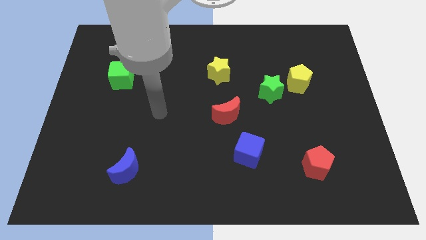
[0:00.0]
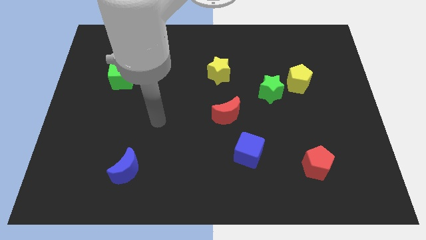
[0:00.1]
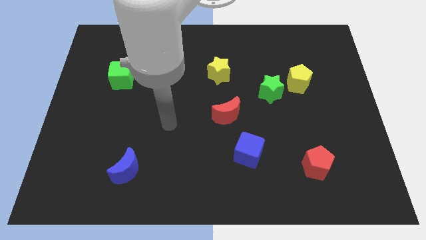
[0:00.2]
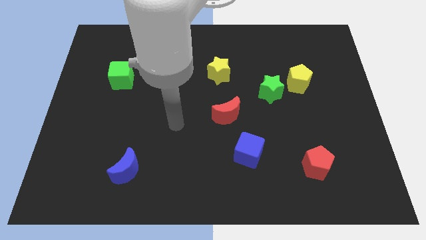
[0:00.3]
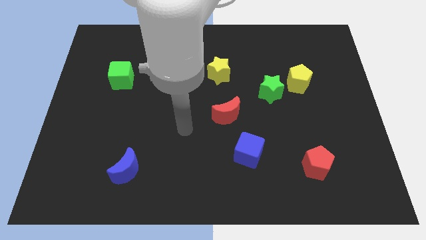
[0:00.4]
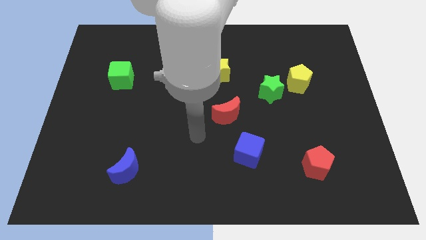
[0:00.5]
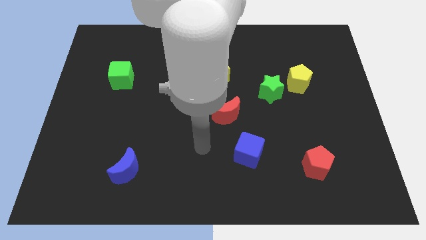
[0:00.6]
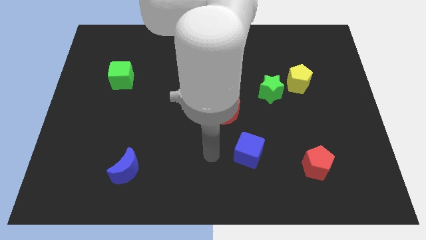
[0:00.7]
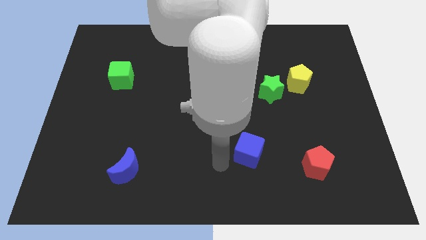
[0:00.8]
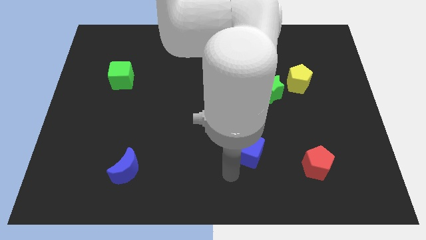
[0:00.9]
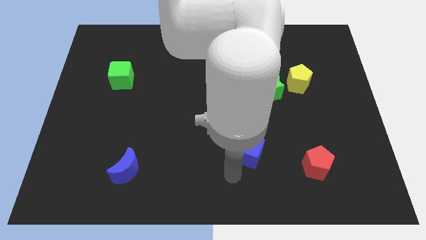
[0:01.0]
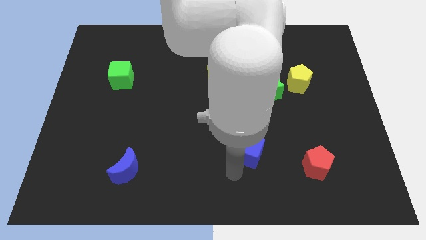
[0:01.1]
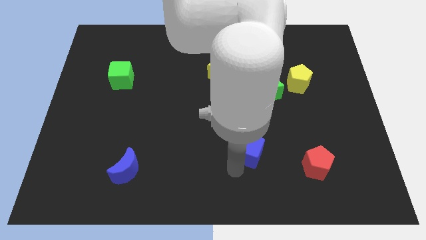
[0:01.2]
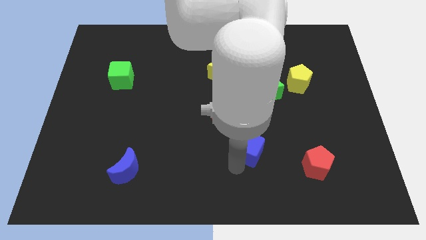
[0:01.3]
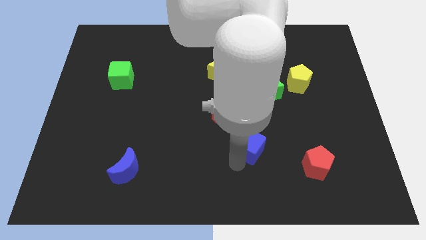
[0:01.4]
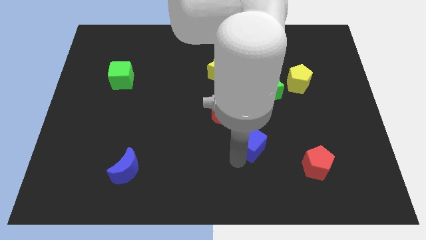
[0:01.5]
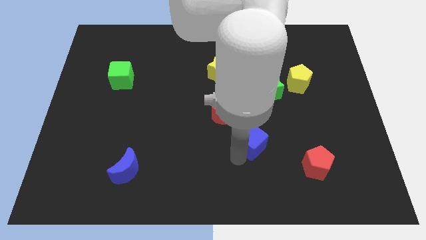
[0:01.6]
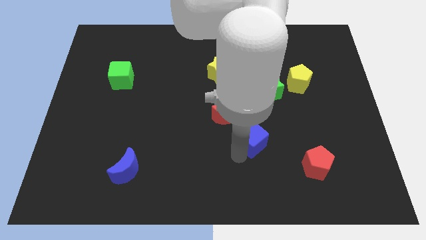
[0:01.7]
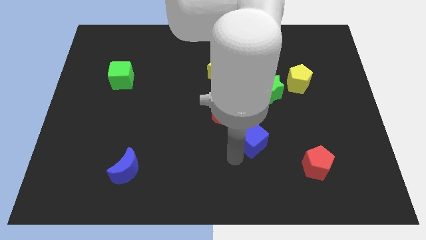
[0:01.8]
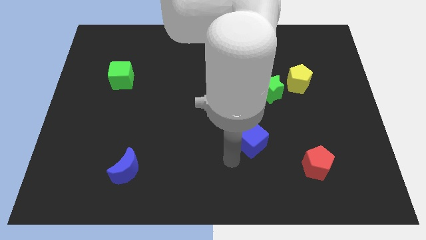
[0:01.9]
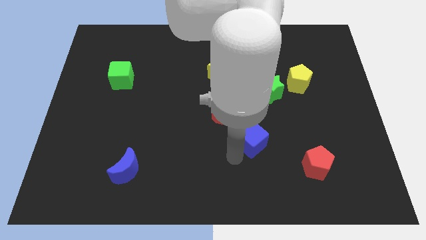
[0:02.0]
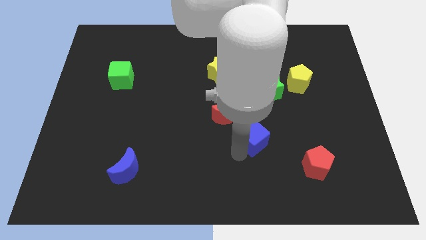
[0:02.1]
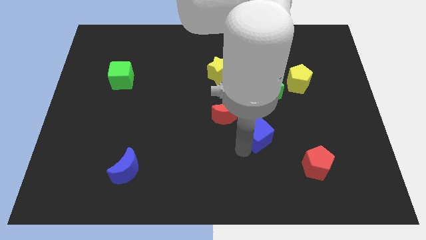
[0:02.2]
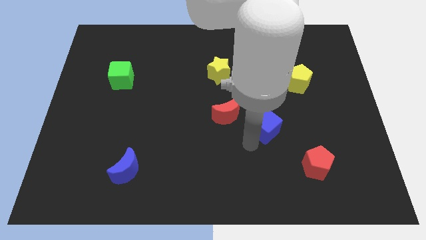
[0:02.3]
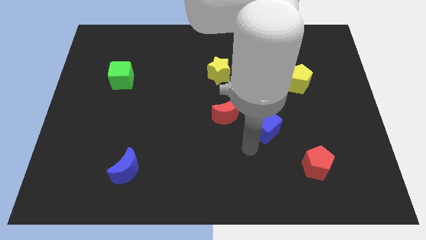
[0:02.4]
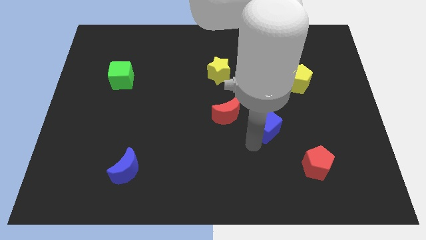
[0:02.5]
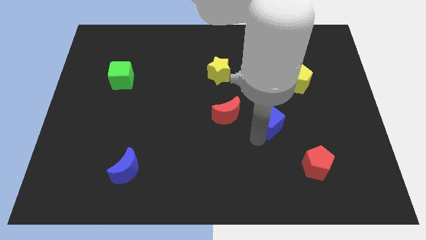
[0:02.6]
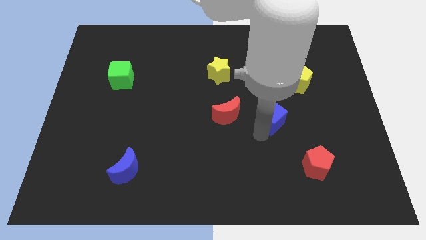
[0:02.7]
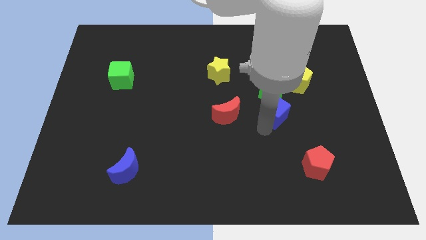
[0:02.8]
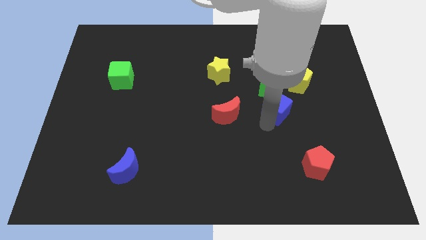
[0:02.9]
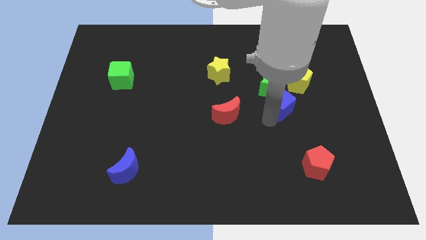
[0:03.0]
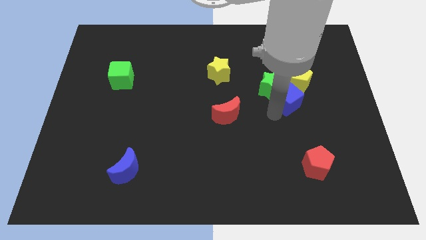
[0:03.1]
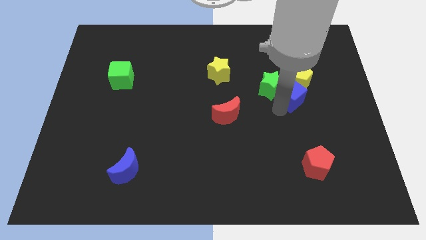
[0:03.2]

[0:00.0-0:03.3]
put the blue cube close to the yellow pentagon

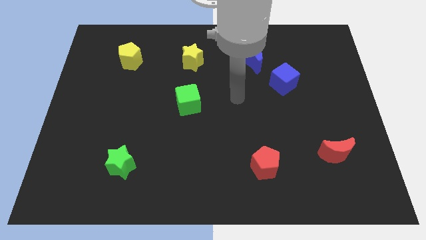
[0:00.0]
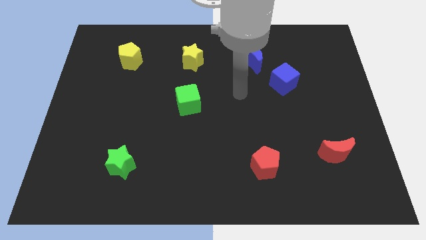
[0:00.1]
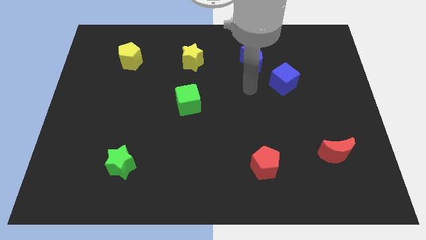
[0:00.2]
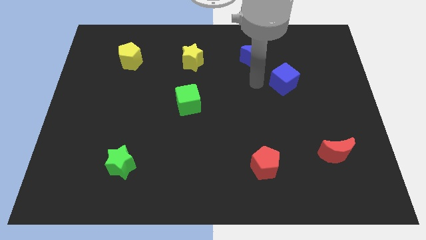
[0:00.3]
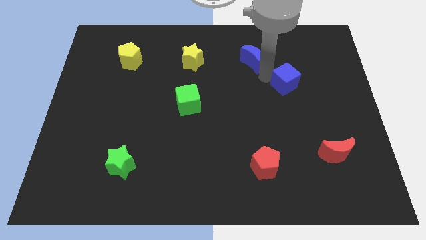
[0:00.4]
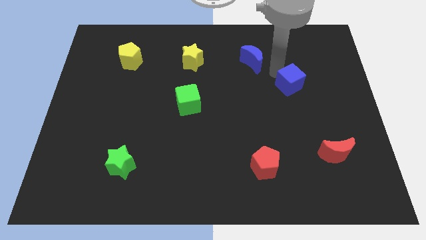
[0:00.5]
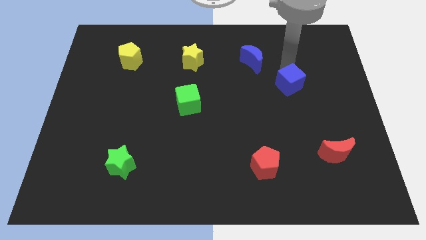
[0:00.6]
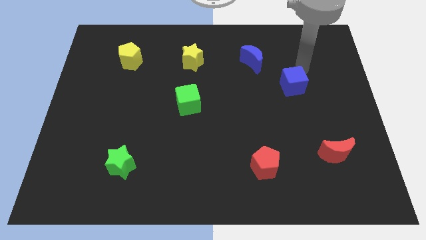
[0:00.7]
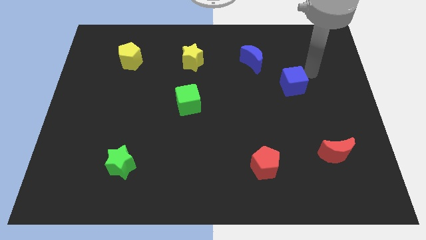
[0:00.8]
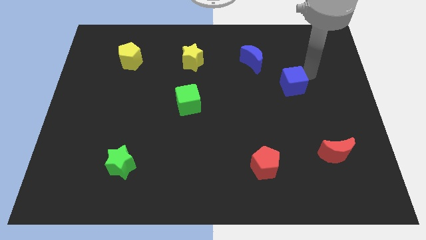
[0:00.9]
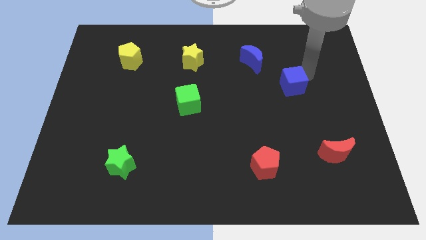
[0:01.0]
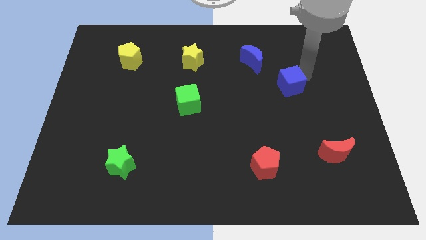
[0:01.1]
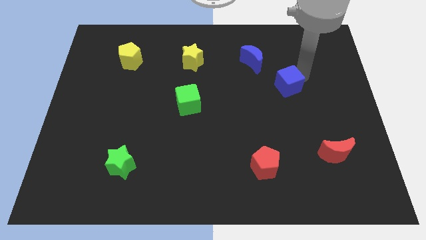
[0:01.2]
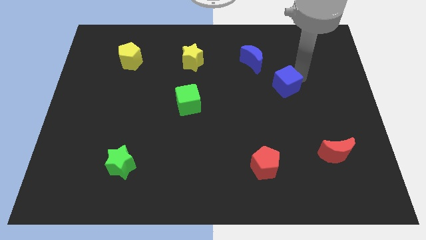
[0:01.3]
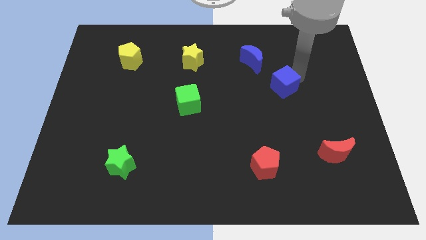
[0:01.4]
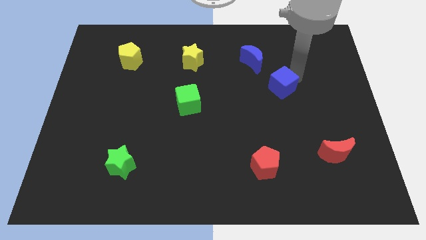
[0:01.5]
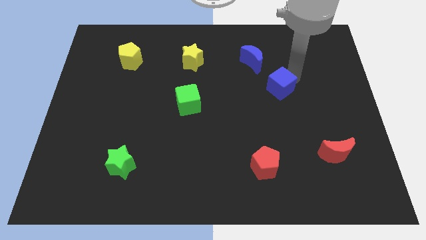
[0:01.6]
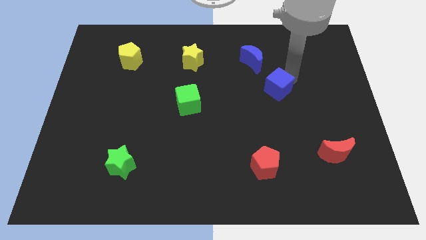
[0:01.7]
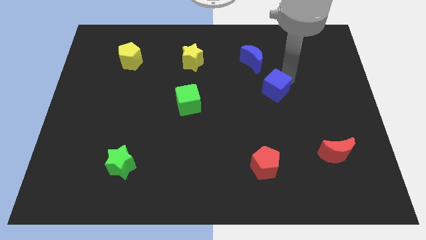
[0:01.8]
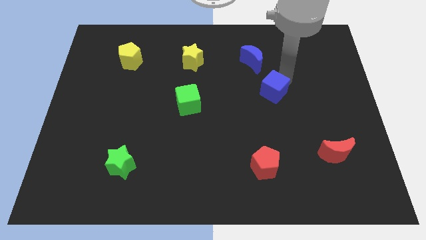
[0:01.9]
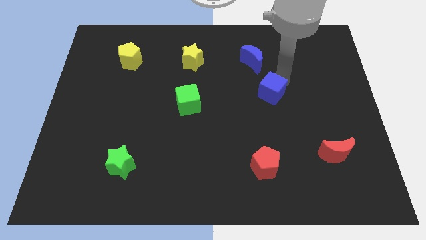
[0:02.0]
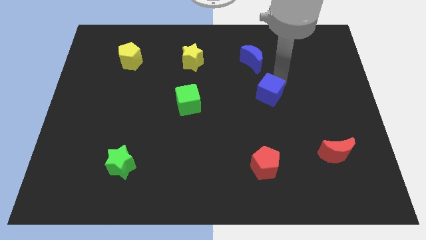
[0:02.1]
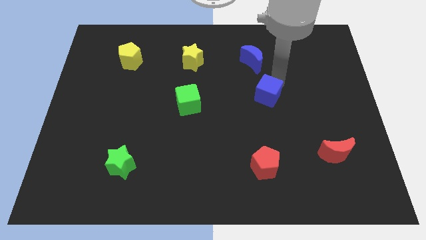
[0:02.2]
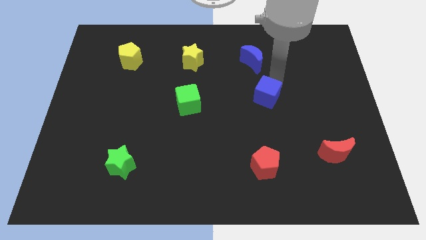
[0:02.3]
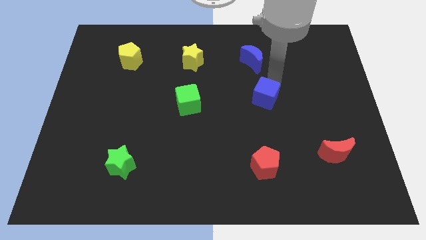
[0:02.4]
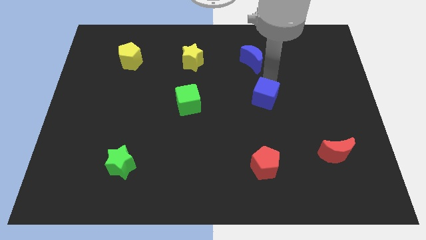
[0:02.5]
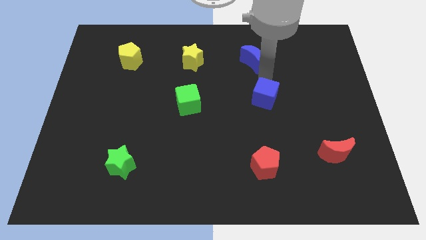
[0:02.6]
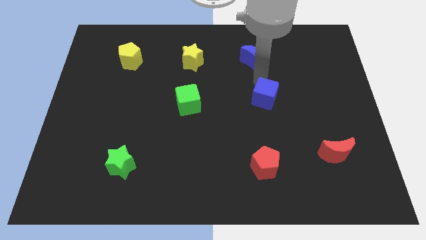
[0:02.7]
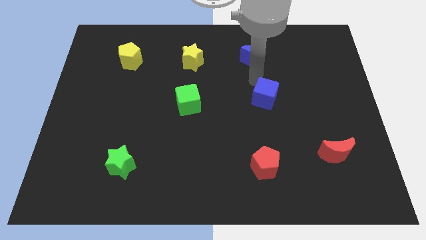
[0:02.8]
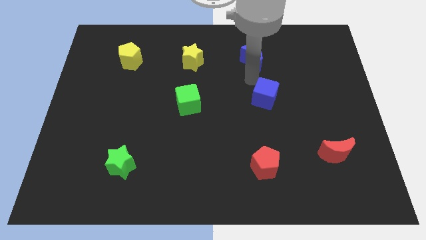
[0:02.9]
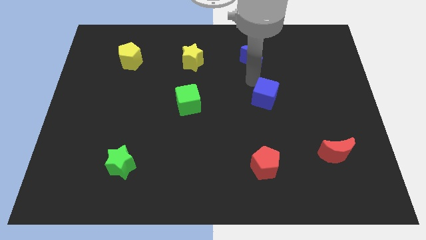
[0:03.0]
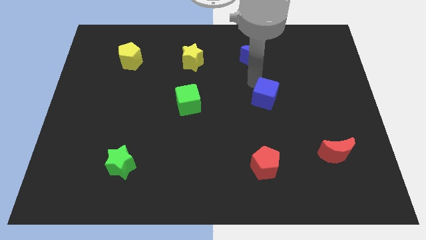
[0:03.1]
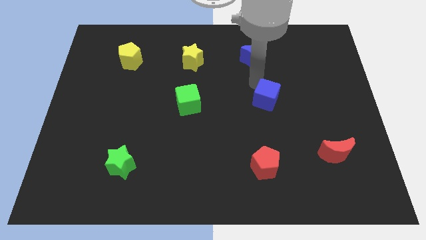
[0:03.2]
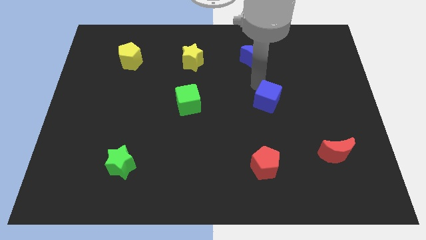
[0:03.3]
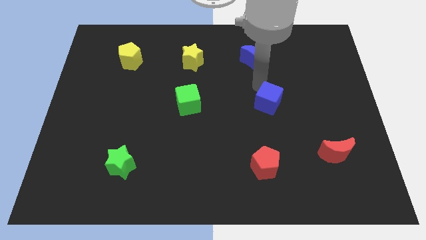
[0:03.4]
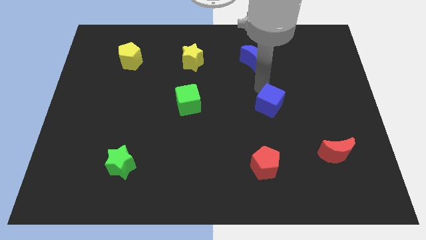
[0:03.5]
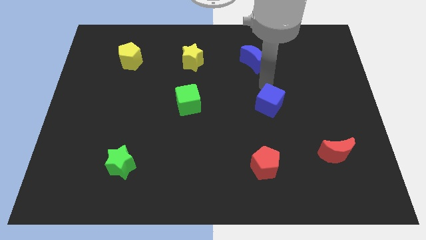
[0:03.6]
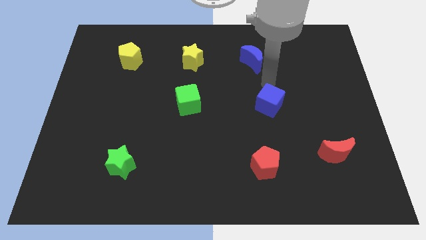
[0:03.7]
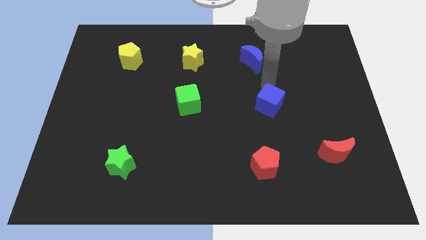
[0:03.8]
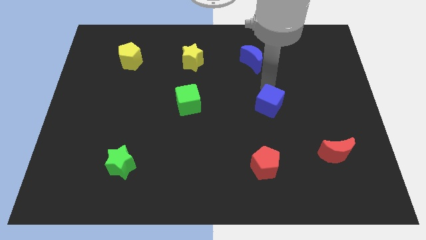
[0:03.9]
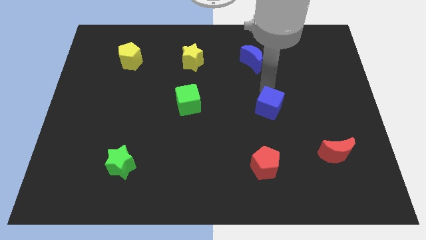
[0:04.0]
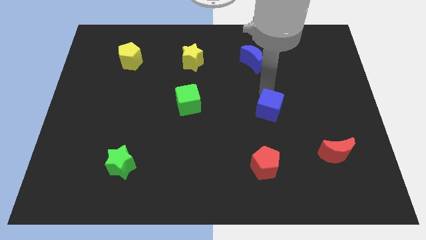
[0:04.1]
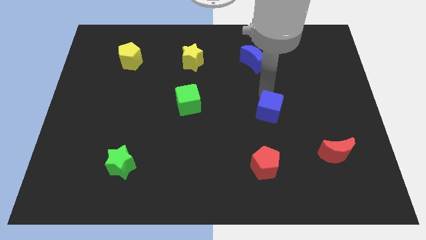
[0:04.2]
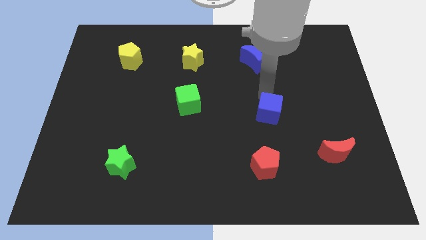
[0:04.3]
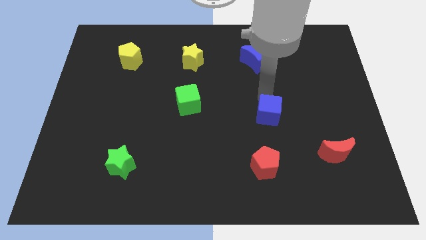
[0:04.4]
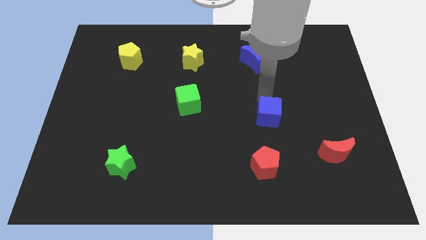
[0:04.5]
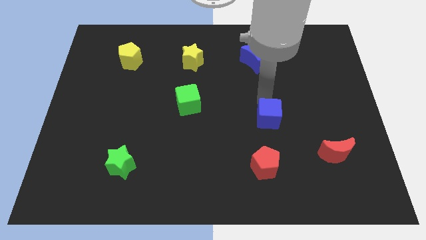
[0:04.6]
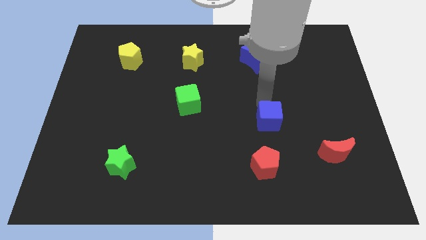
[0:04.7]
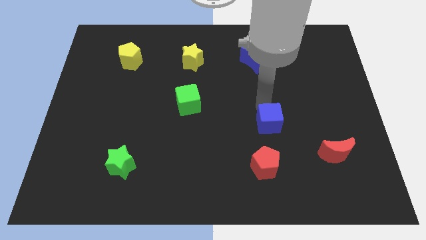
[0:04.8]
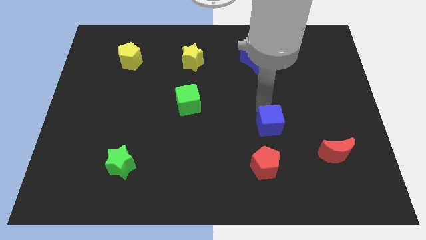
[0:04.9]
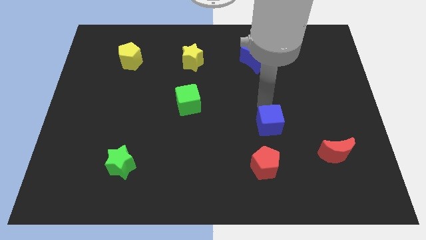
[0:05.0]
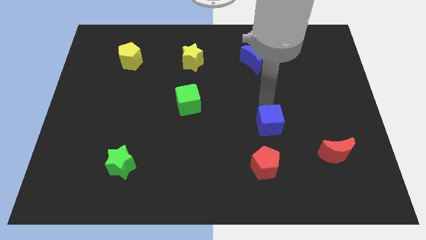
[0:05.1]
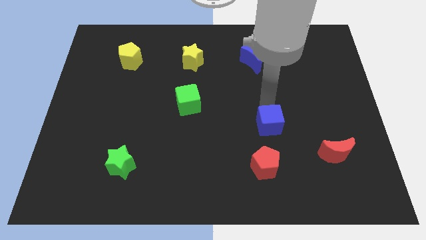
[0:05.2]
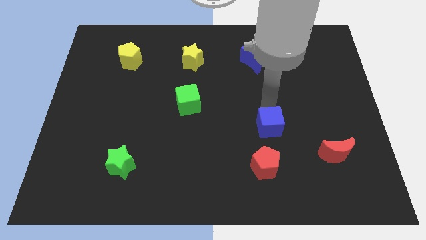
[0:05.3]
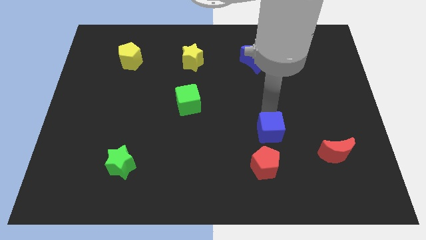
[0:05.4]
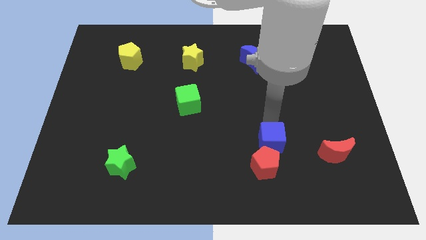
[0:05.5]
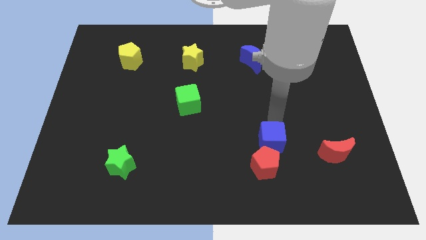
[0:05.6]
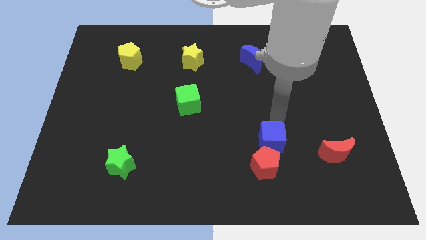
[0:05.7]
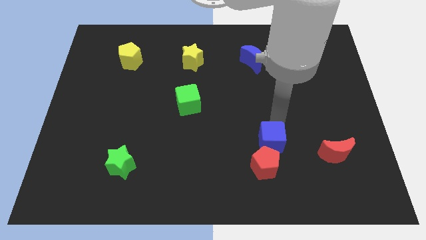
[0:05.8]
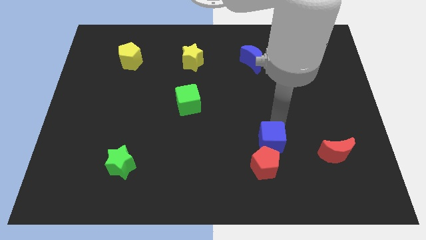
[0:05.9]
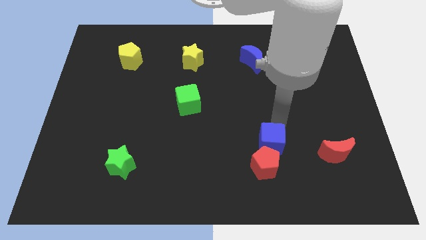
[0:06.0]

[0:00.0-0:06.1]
move the blue cube close to the red pentagon
